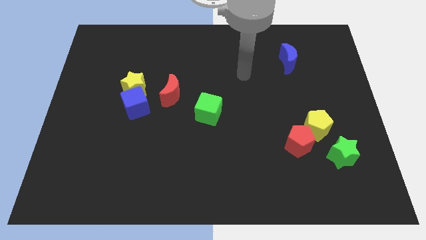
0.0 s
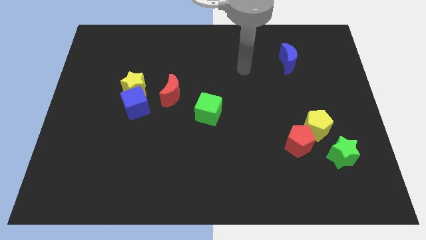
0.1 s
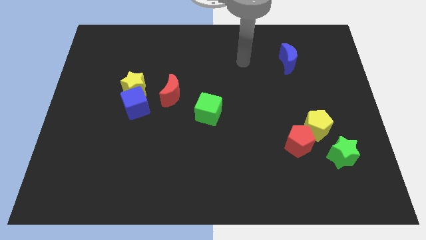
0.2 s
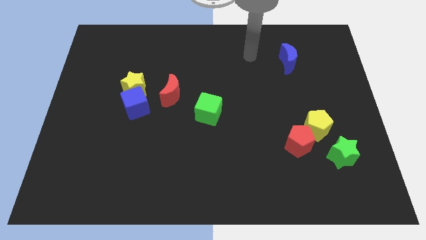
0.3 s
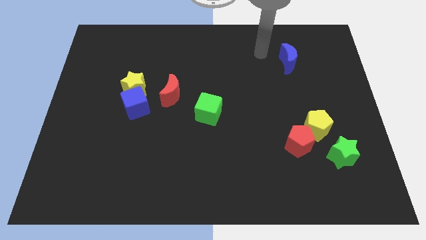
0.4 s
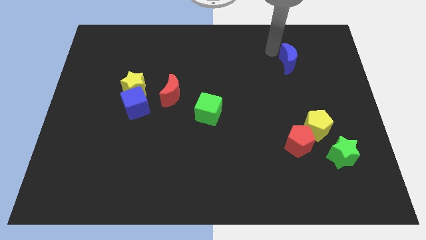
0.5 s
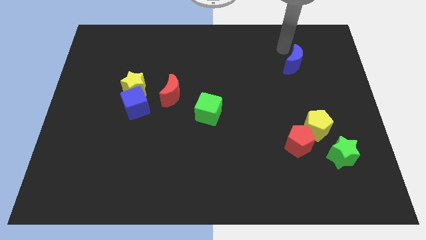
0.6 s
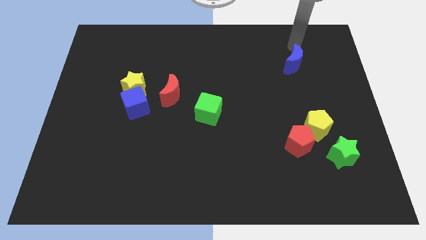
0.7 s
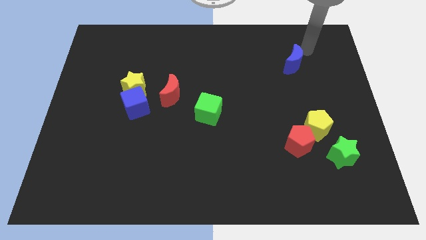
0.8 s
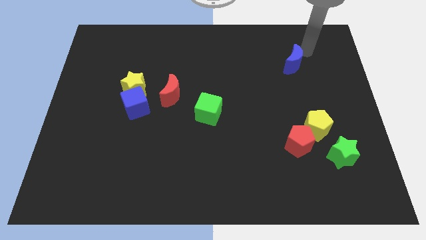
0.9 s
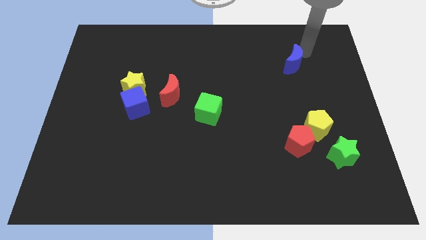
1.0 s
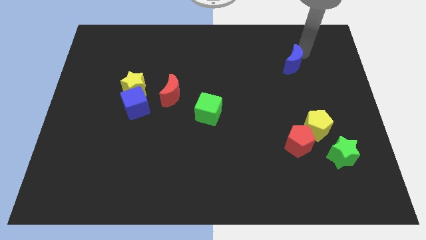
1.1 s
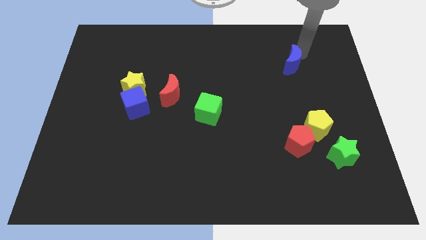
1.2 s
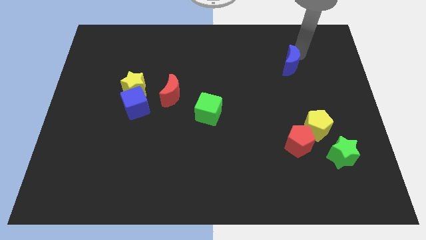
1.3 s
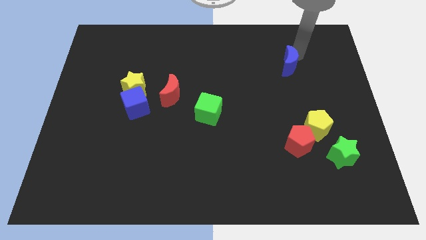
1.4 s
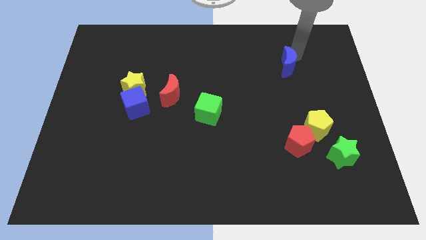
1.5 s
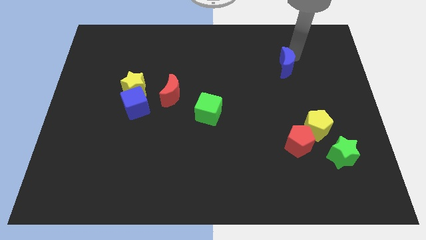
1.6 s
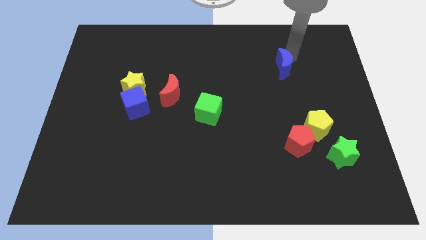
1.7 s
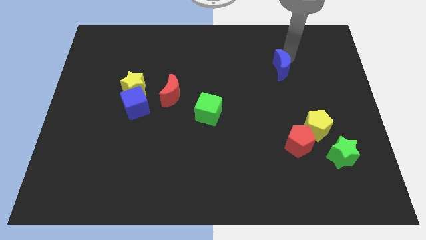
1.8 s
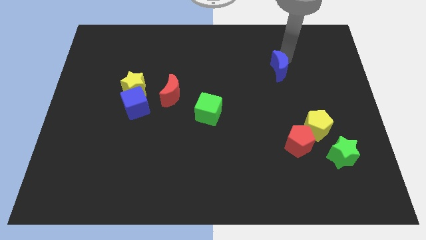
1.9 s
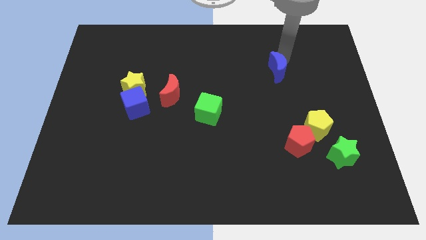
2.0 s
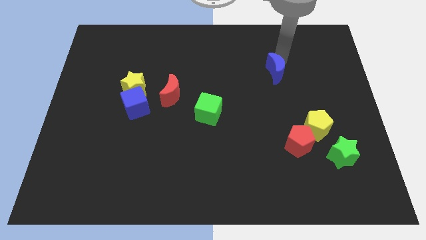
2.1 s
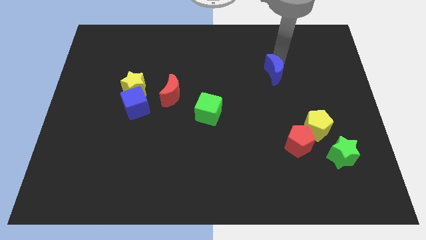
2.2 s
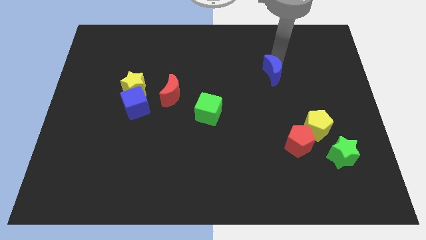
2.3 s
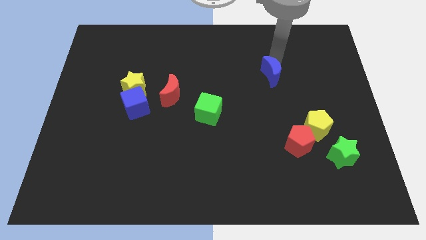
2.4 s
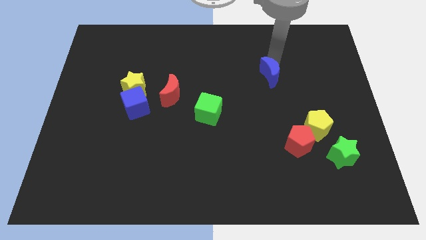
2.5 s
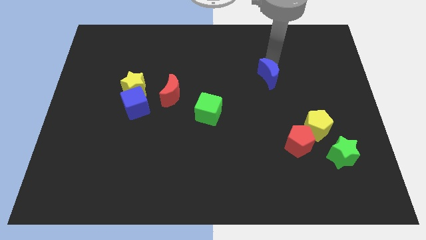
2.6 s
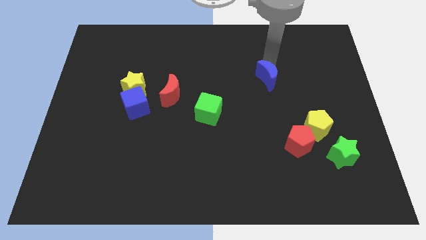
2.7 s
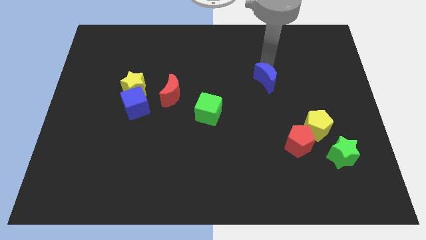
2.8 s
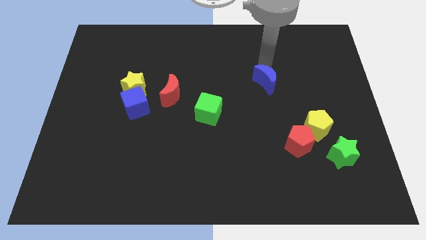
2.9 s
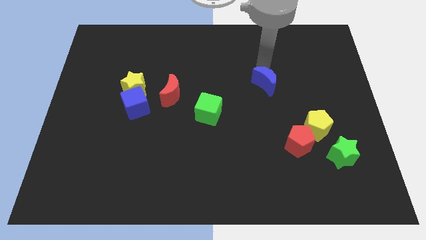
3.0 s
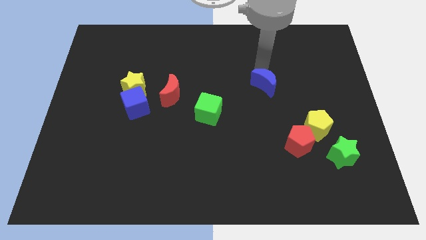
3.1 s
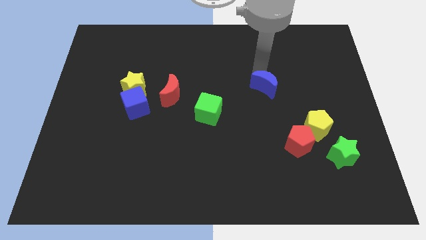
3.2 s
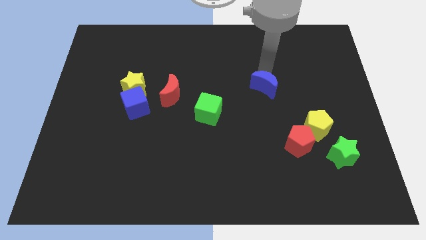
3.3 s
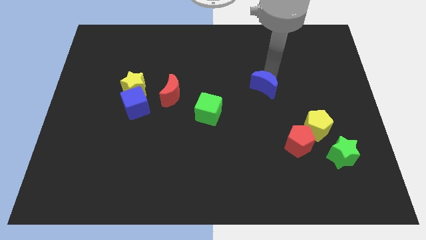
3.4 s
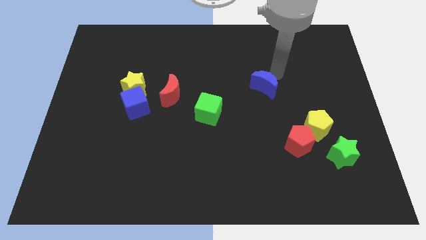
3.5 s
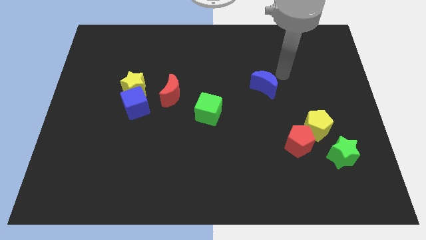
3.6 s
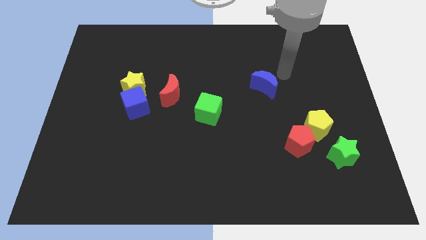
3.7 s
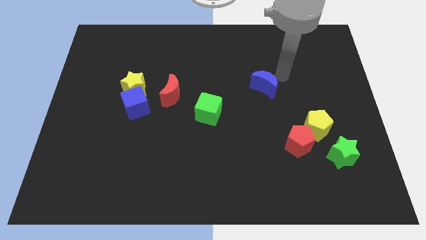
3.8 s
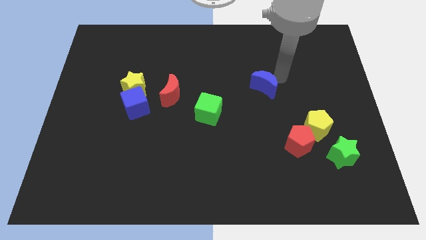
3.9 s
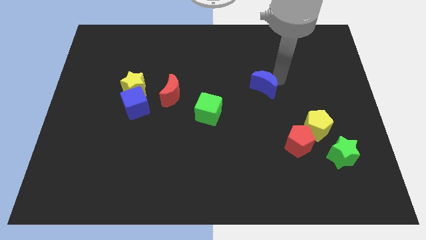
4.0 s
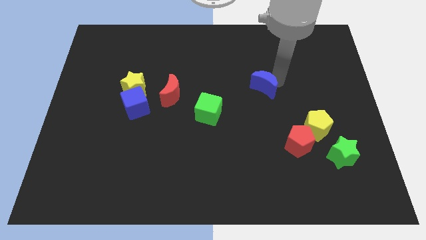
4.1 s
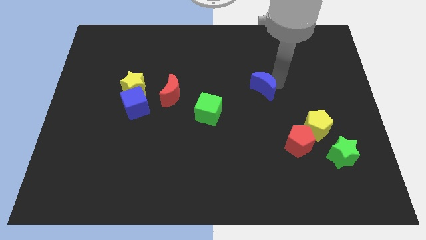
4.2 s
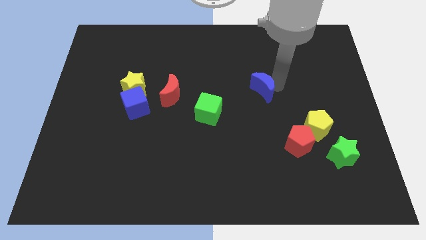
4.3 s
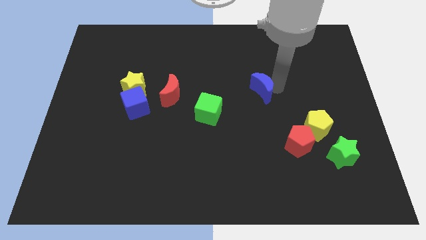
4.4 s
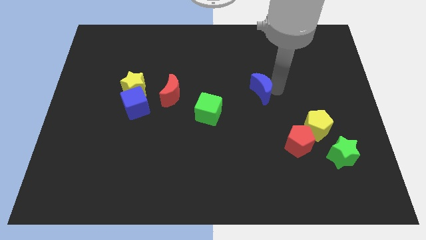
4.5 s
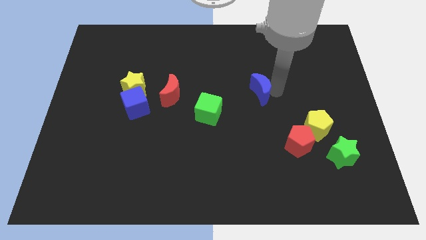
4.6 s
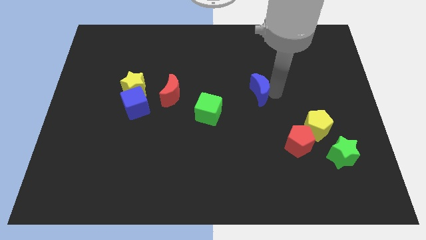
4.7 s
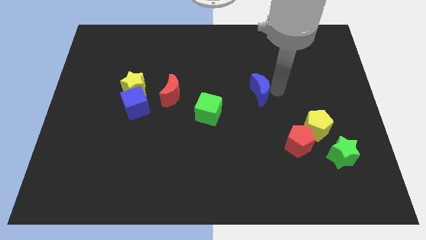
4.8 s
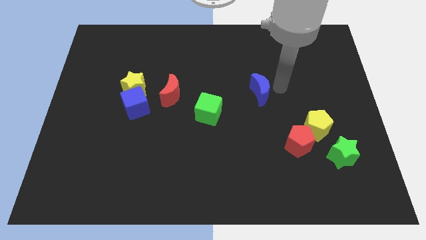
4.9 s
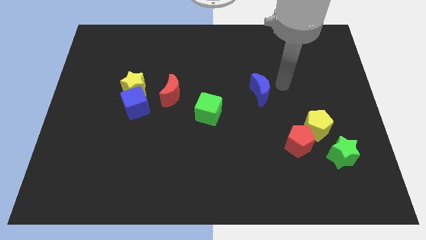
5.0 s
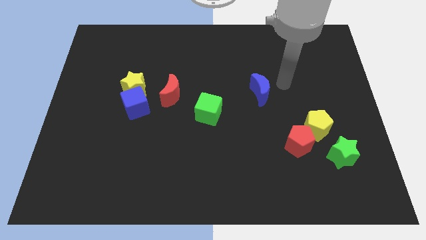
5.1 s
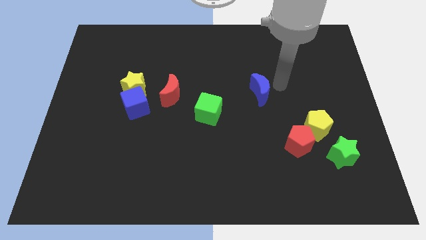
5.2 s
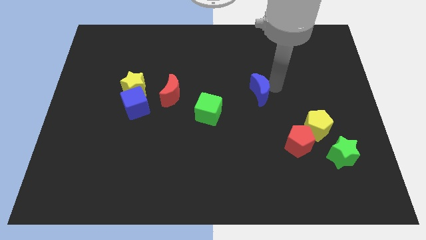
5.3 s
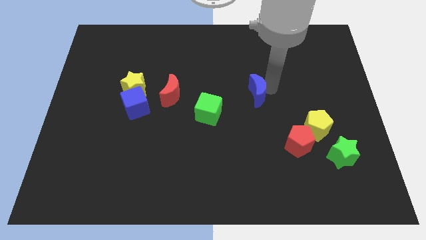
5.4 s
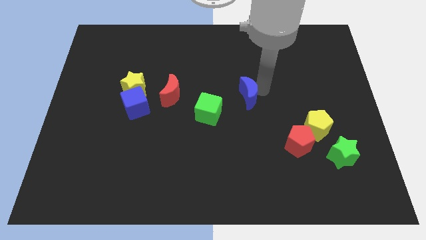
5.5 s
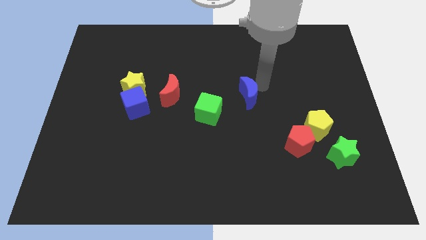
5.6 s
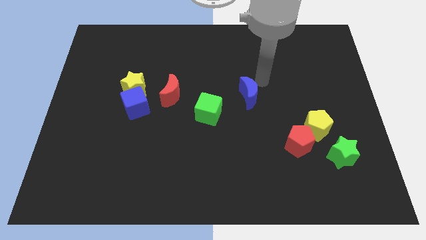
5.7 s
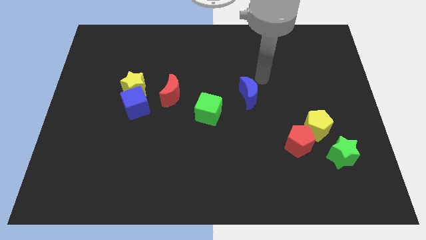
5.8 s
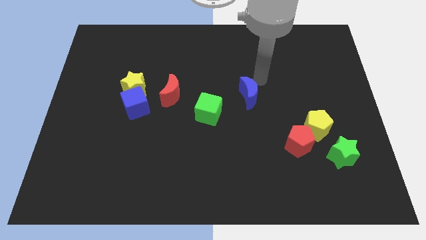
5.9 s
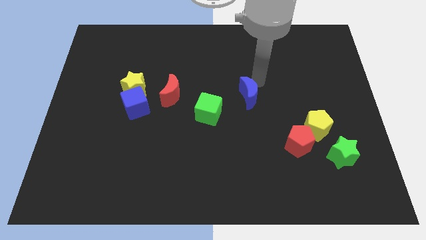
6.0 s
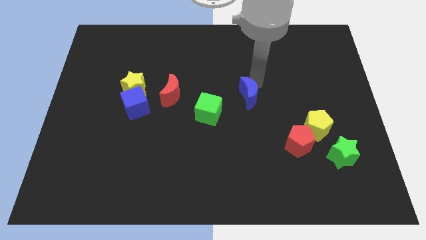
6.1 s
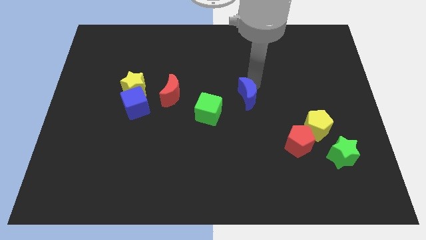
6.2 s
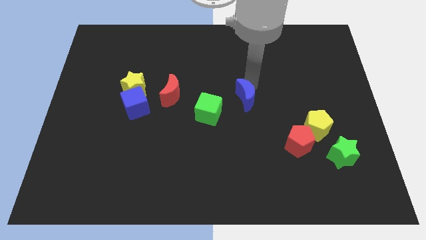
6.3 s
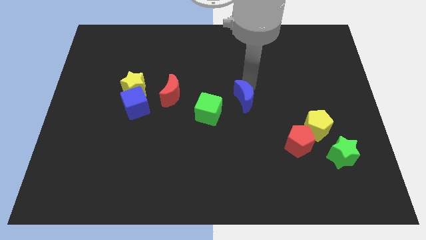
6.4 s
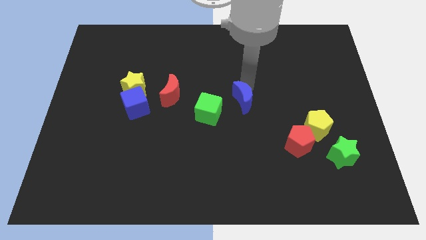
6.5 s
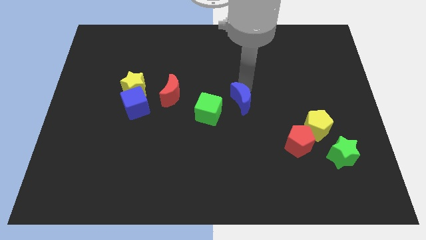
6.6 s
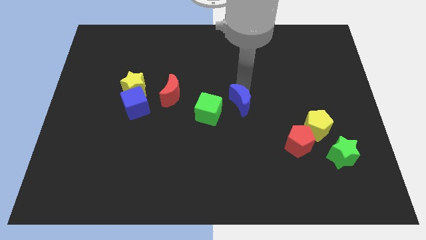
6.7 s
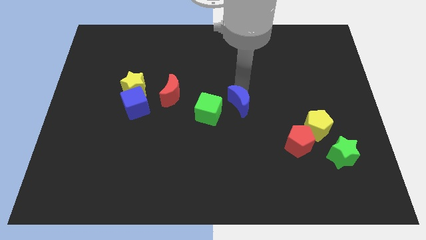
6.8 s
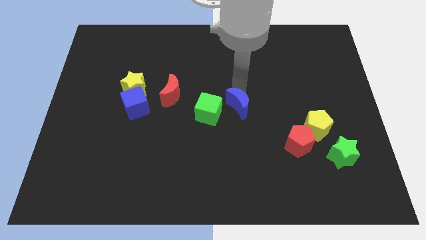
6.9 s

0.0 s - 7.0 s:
push the blue moon downwards and left

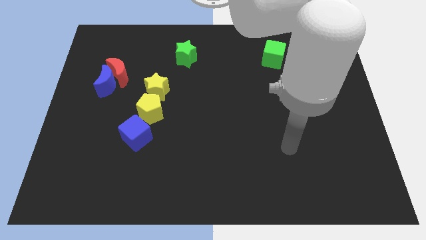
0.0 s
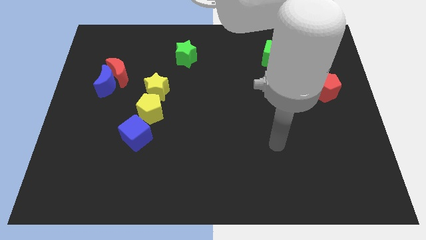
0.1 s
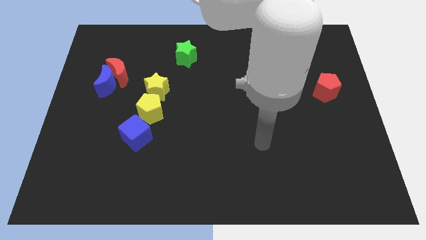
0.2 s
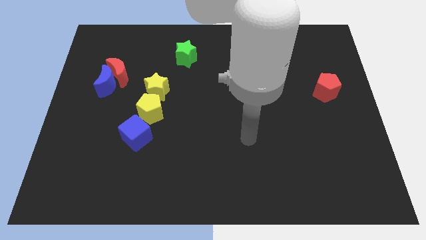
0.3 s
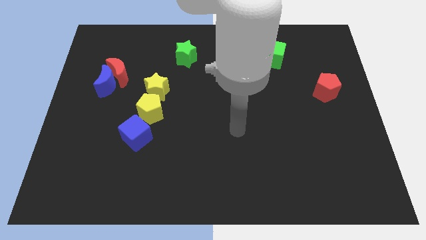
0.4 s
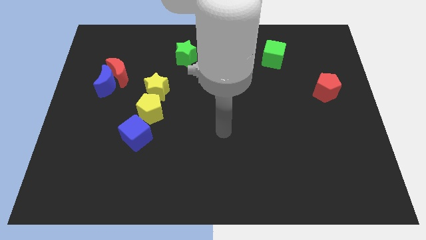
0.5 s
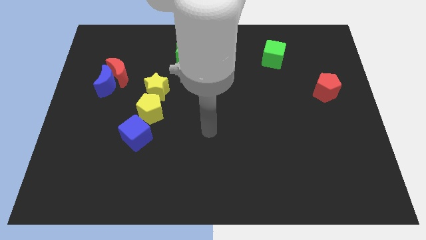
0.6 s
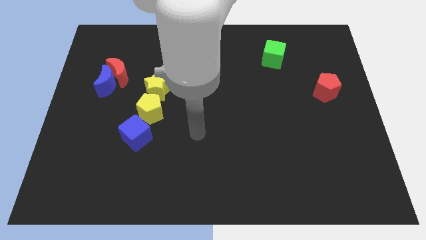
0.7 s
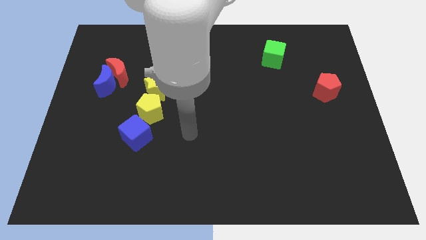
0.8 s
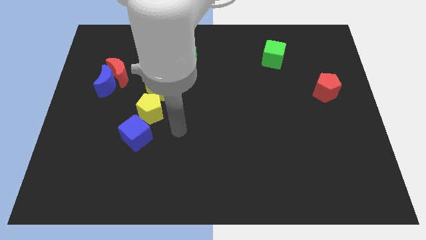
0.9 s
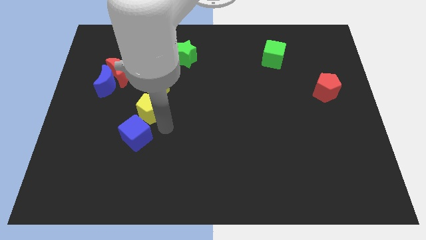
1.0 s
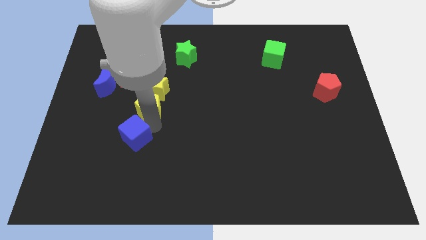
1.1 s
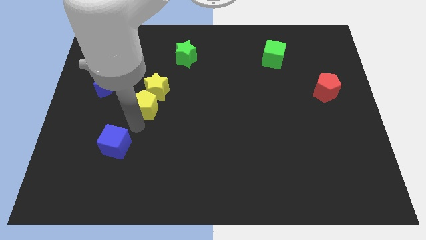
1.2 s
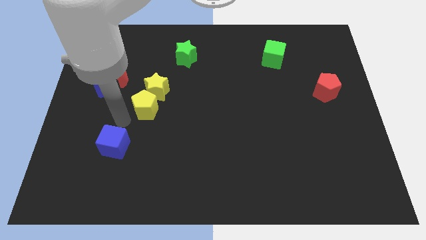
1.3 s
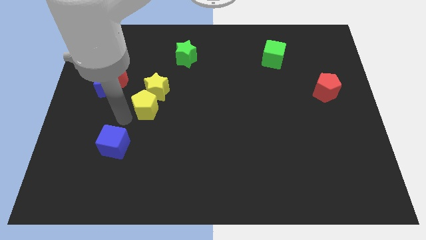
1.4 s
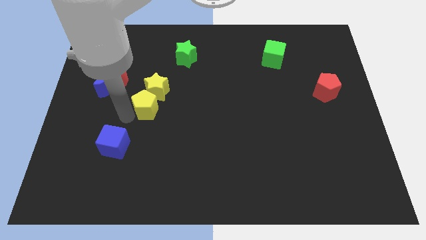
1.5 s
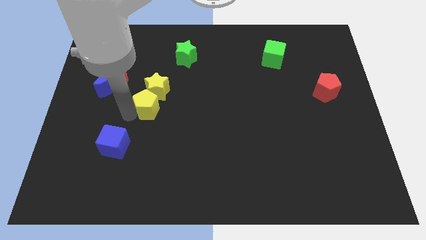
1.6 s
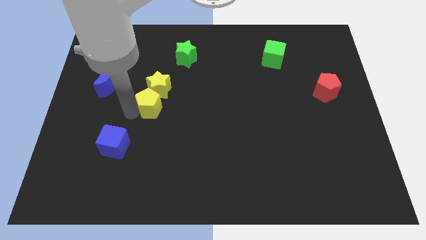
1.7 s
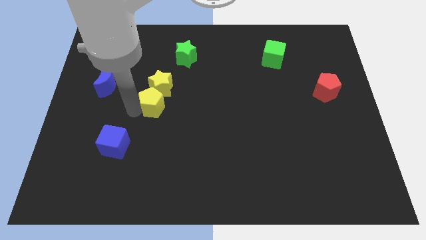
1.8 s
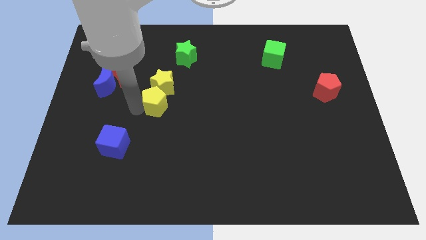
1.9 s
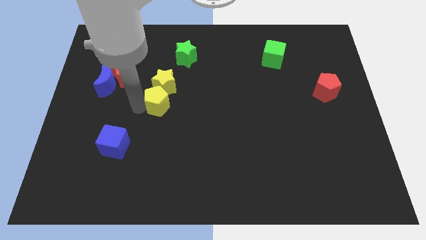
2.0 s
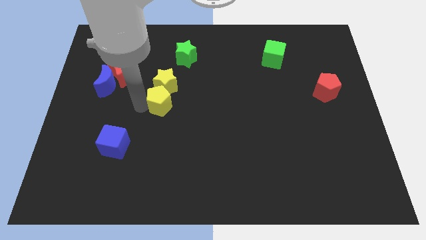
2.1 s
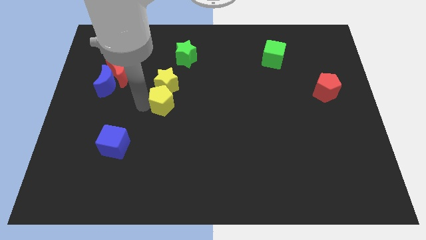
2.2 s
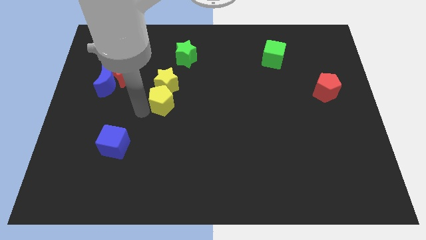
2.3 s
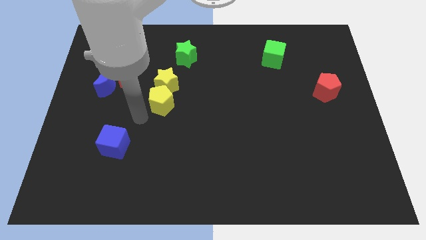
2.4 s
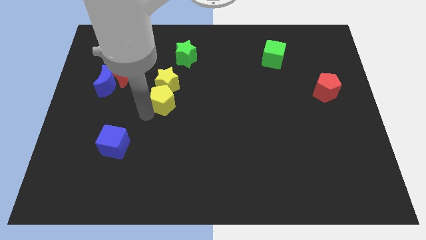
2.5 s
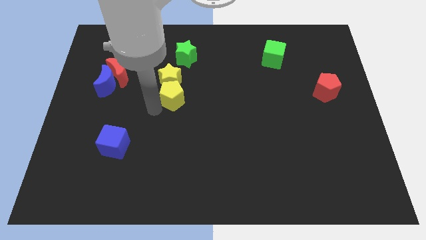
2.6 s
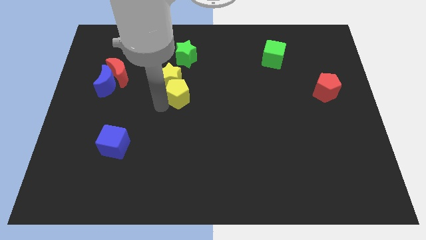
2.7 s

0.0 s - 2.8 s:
slightly push the yellow pentagon up and to the right
